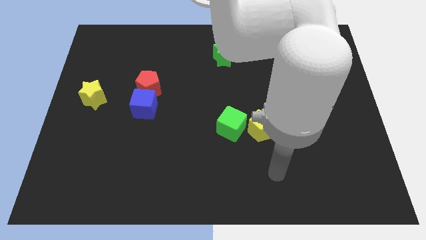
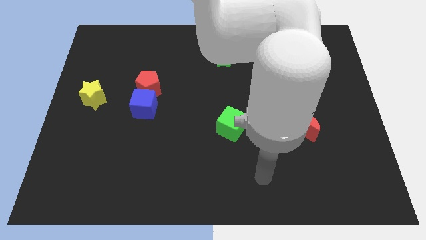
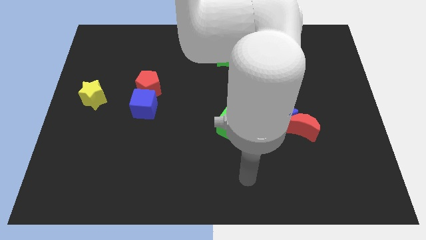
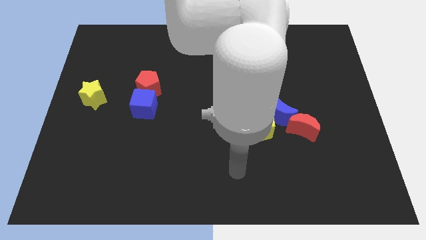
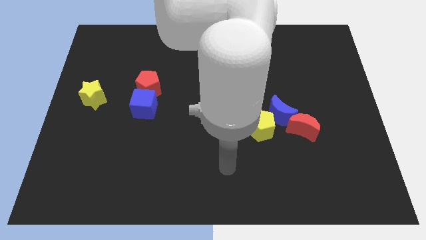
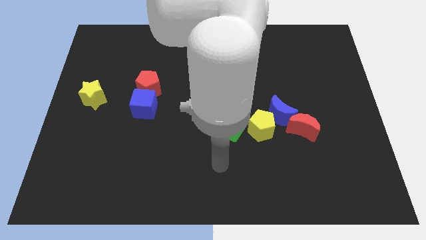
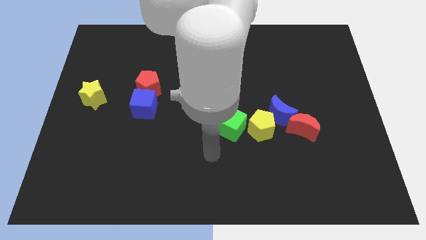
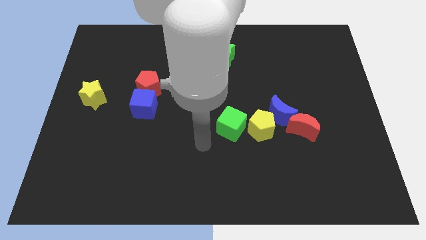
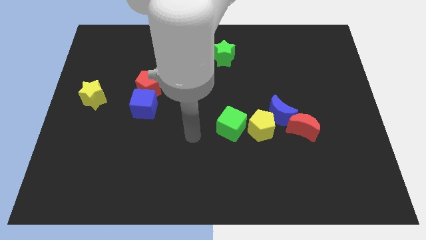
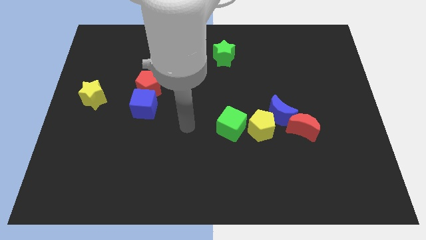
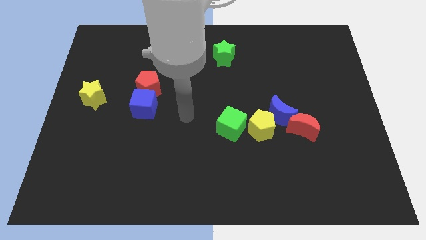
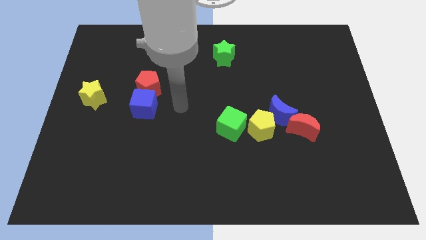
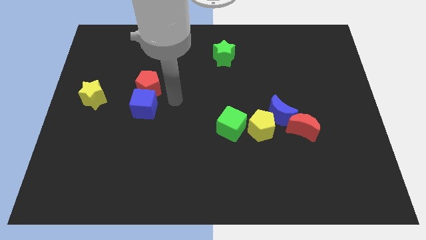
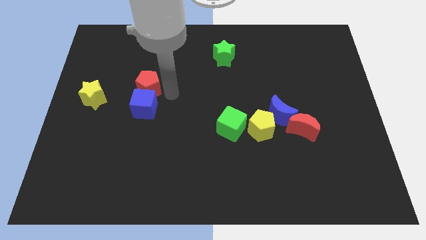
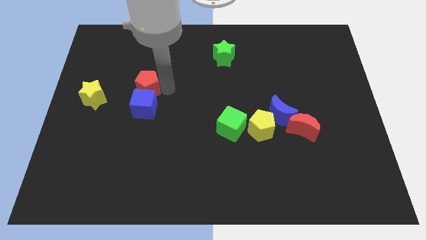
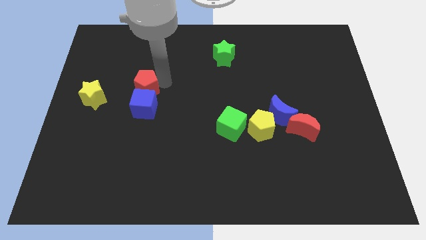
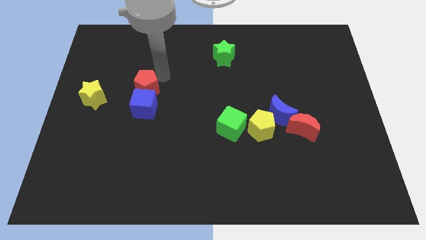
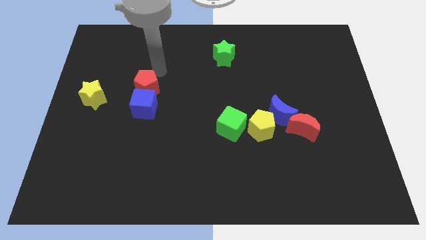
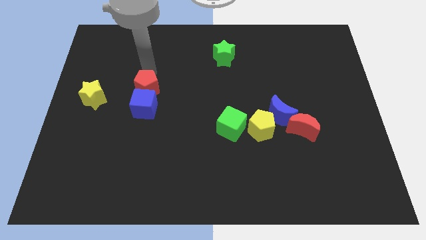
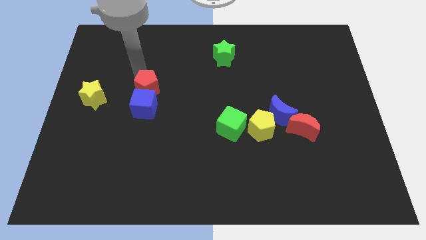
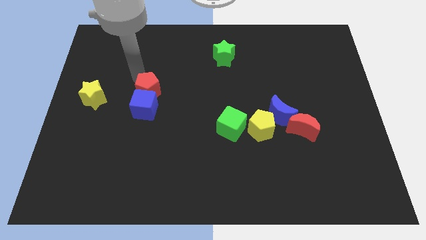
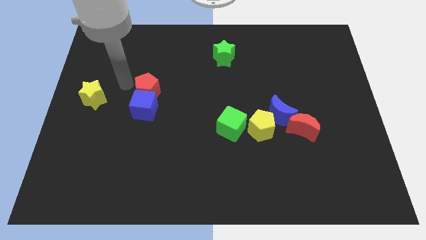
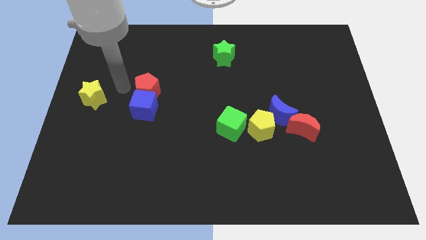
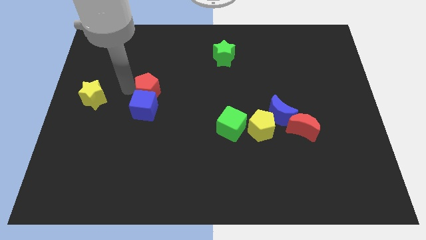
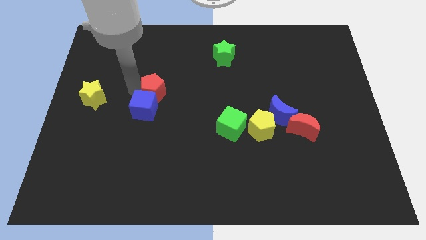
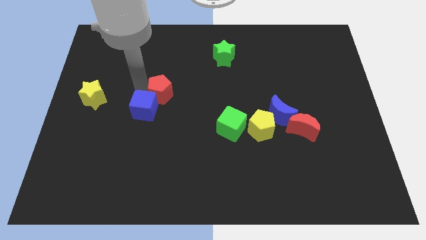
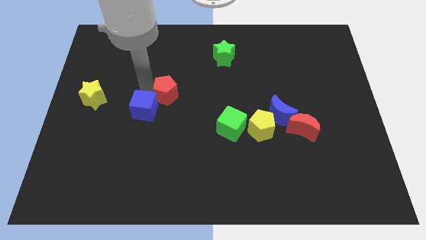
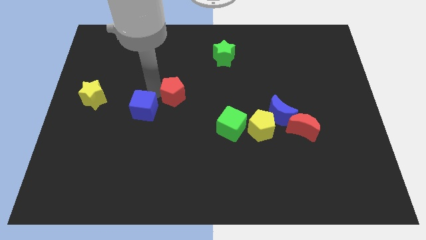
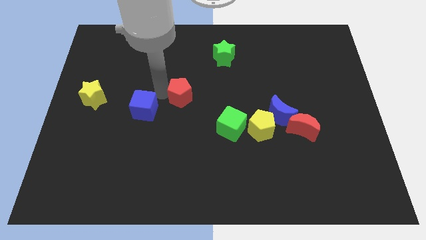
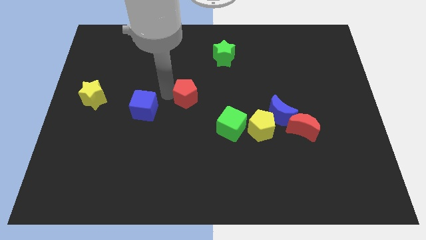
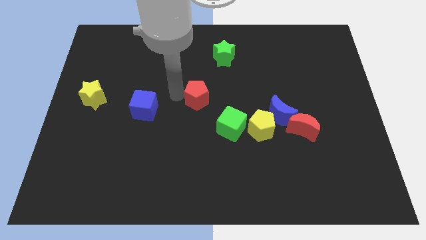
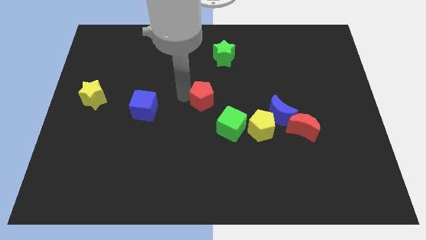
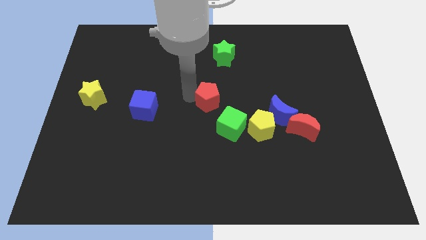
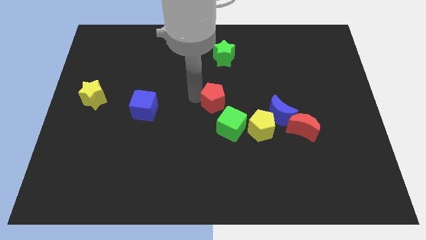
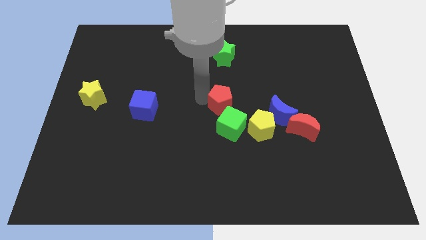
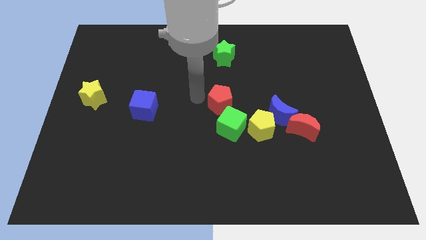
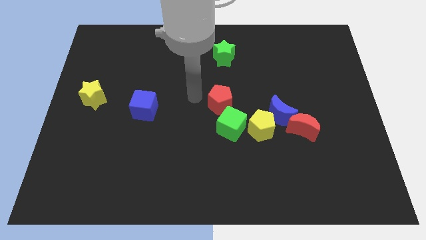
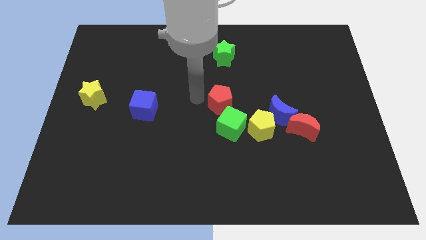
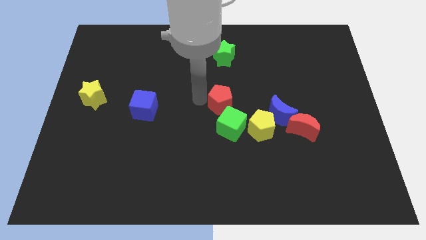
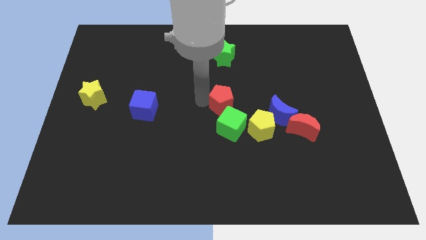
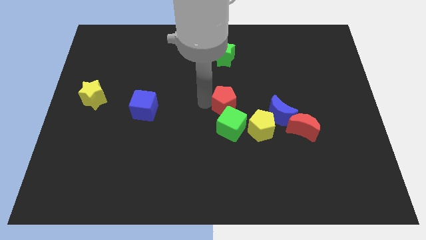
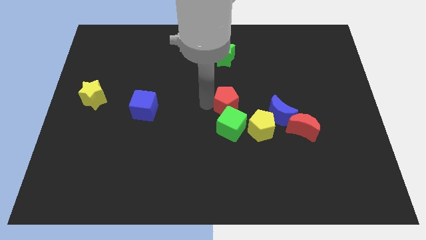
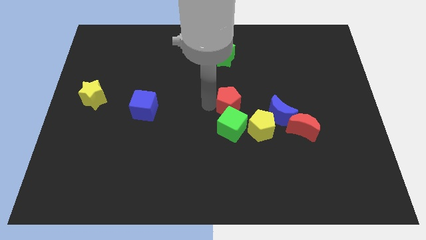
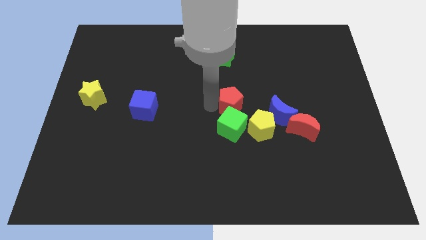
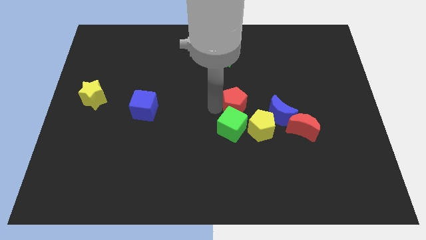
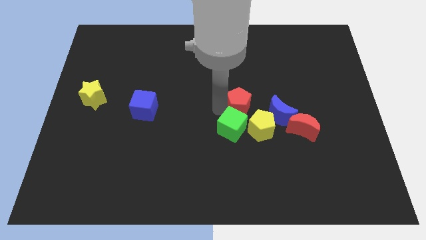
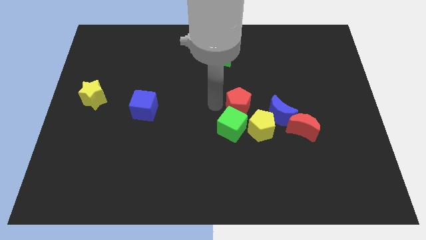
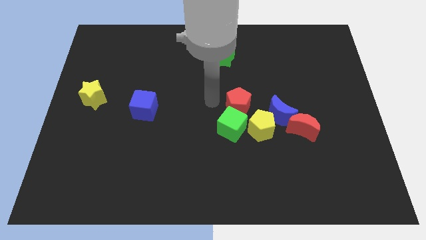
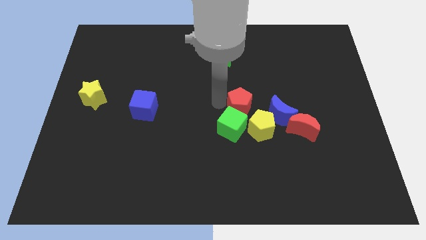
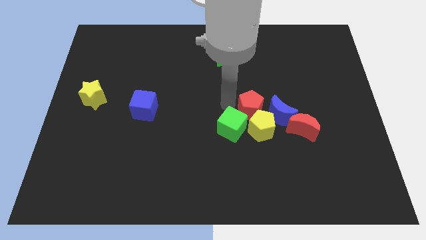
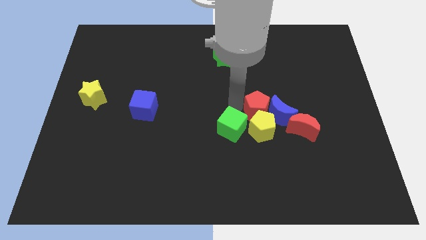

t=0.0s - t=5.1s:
put the red pentagon towards the blue moon

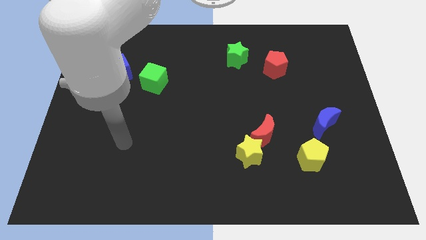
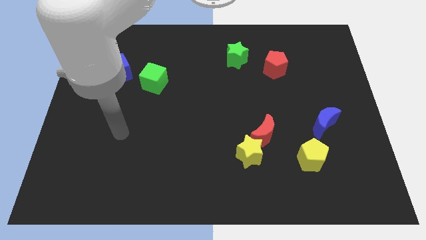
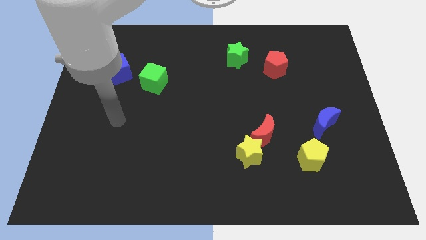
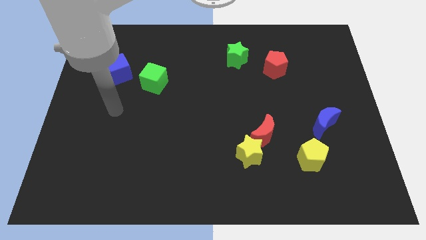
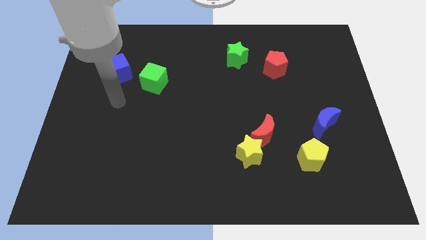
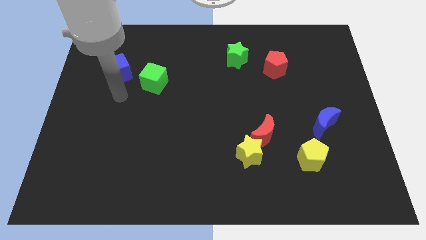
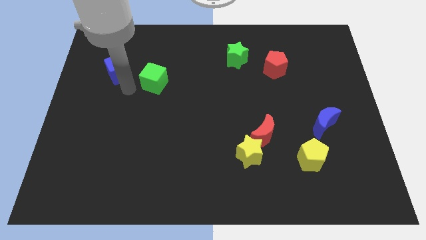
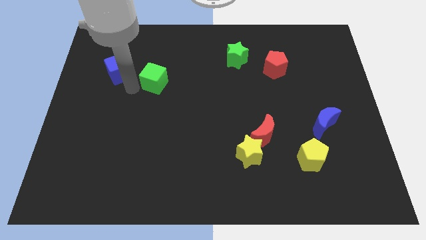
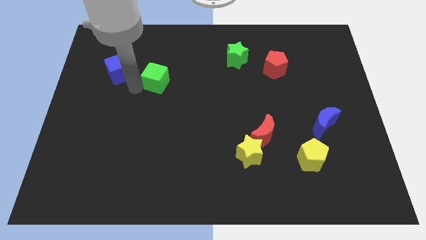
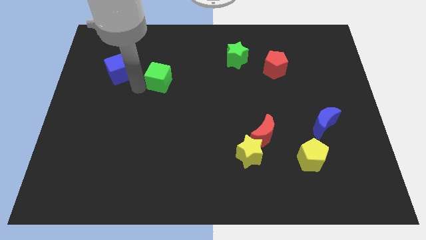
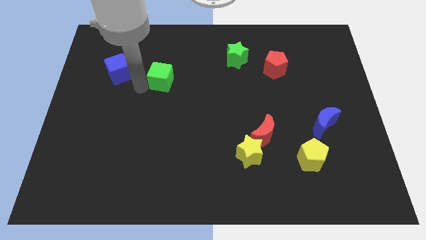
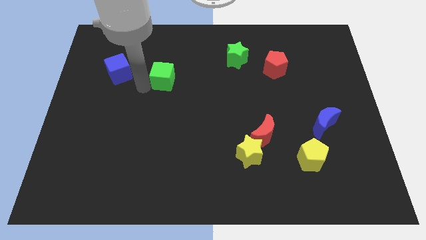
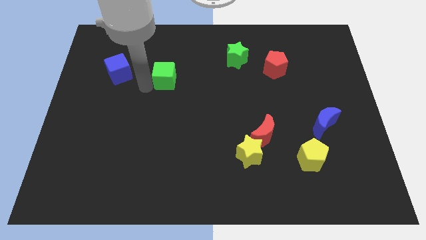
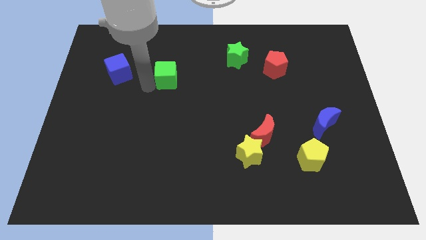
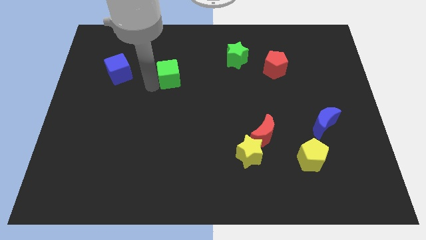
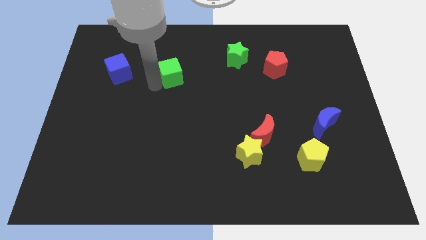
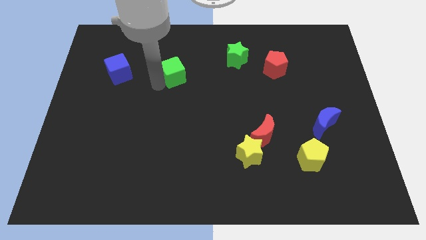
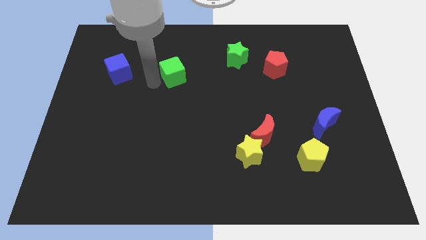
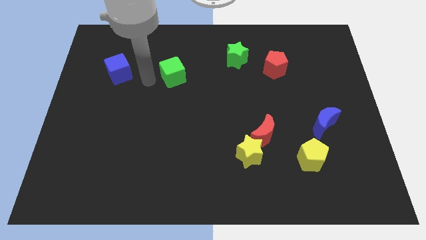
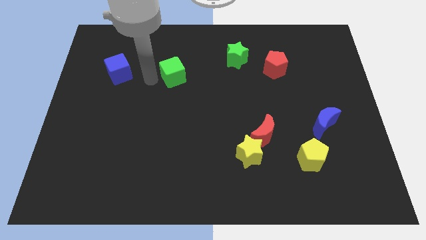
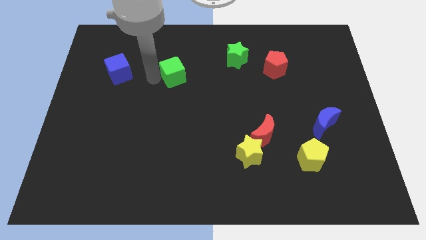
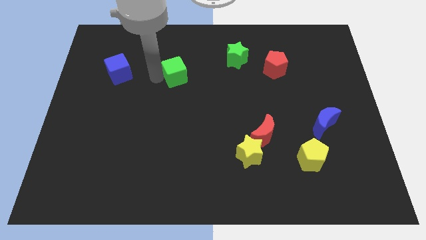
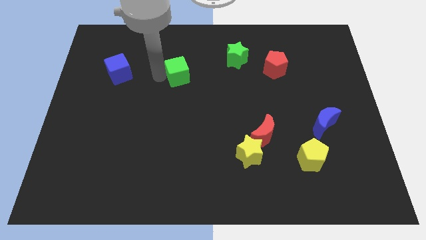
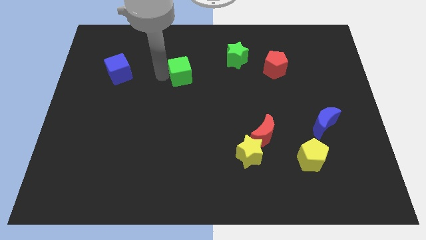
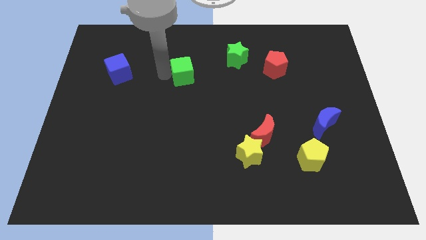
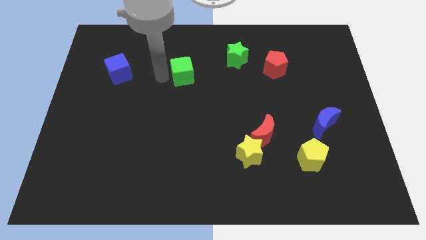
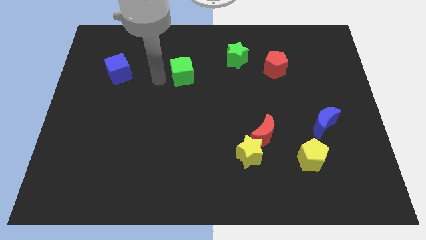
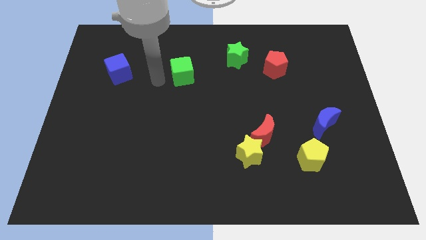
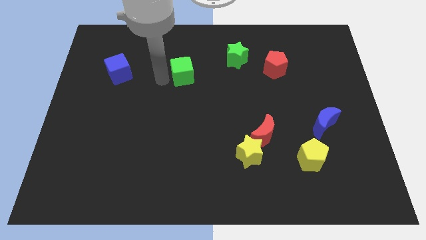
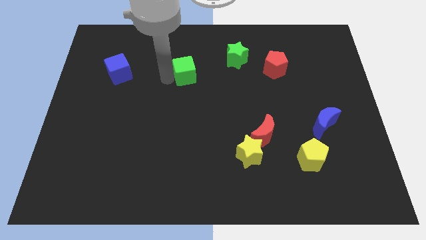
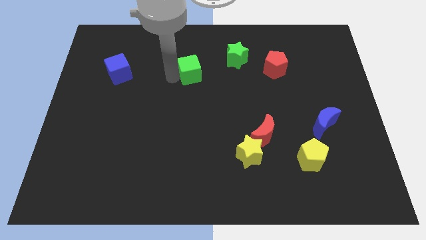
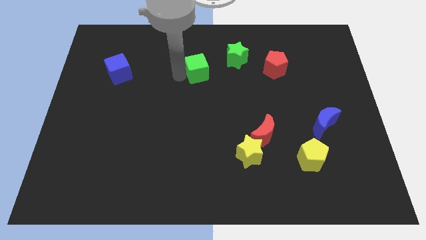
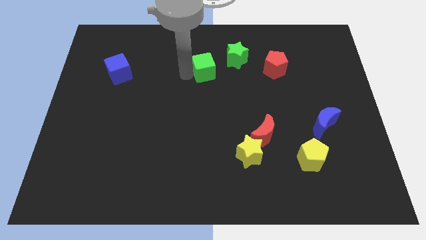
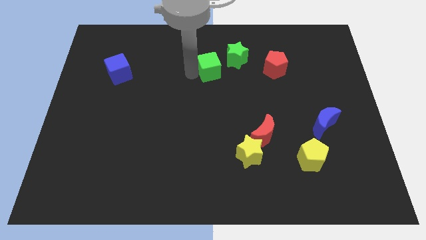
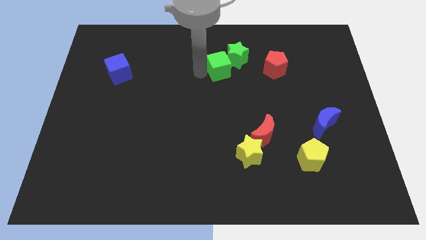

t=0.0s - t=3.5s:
push the green cube towards the green star
